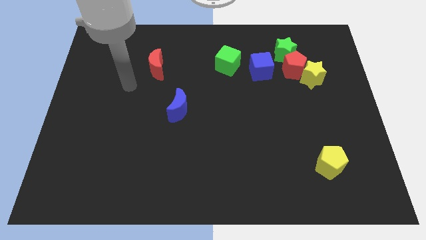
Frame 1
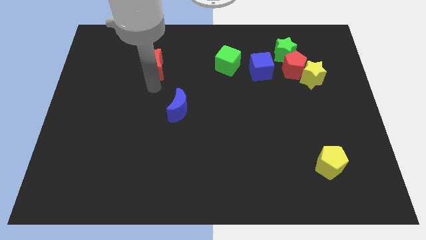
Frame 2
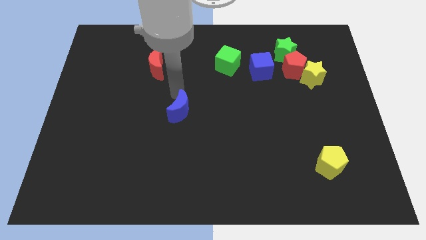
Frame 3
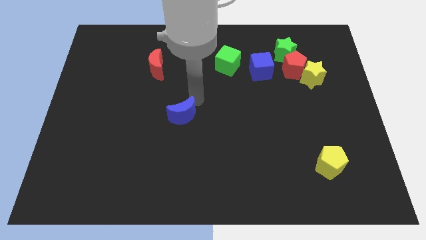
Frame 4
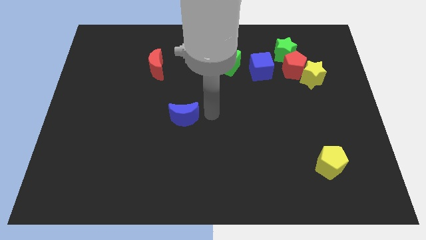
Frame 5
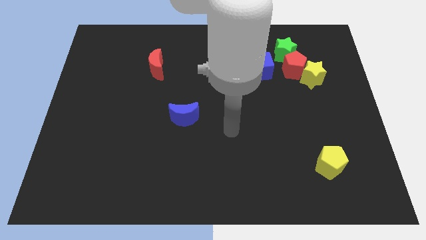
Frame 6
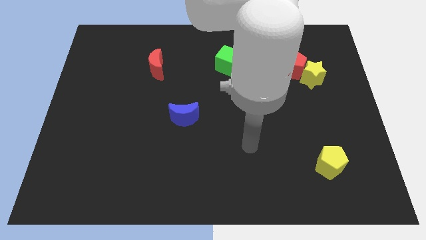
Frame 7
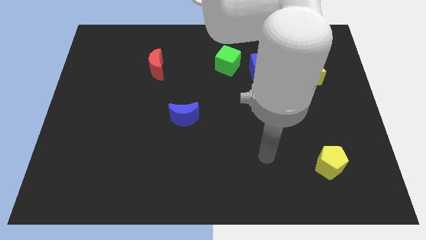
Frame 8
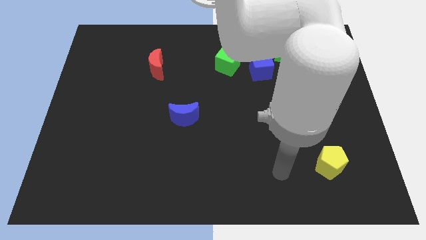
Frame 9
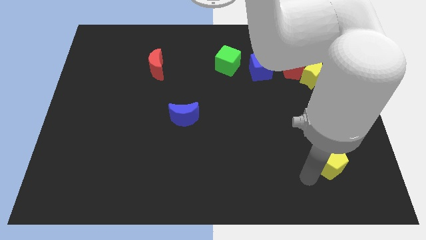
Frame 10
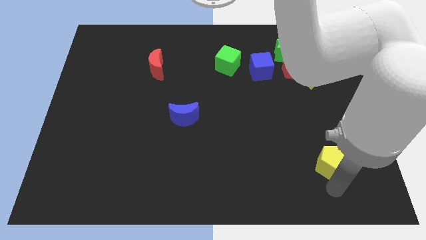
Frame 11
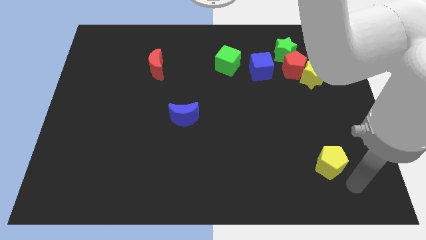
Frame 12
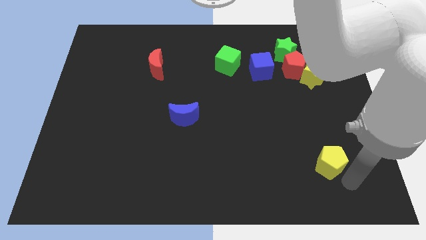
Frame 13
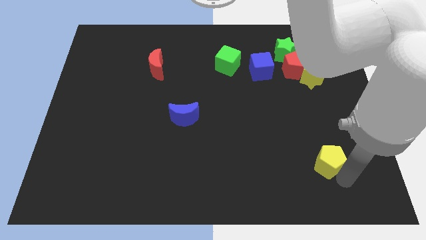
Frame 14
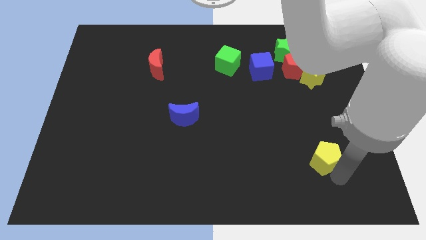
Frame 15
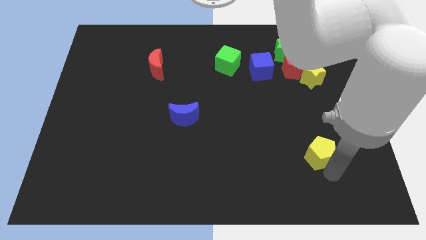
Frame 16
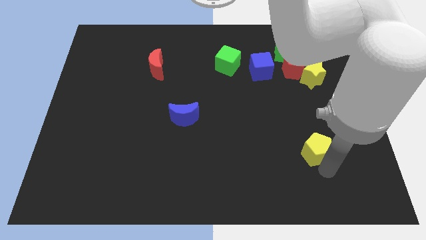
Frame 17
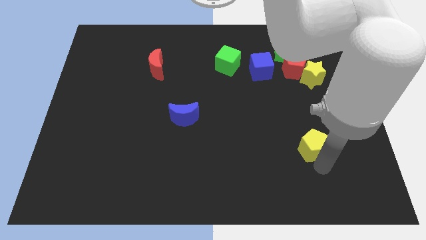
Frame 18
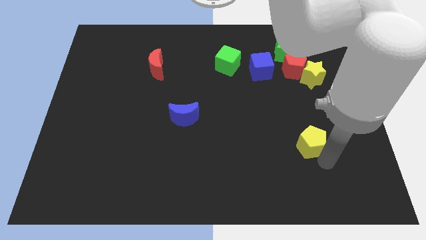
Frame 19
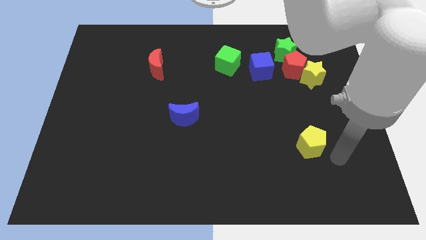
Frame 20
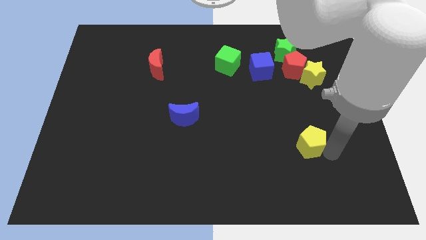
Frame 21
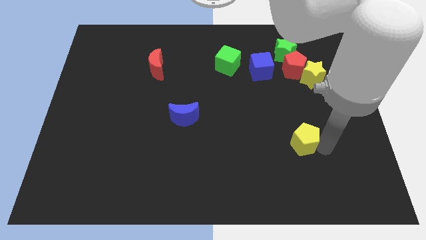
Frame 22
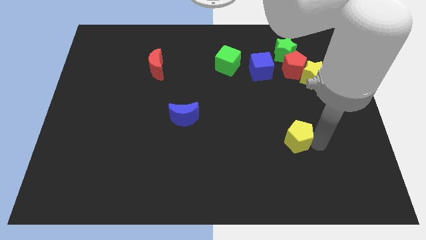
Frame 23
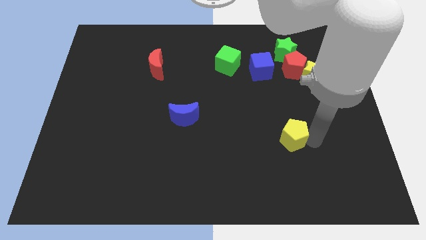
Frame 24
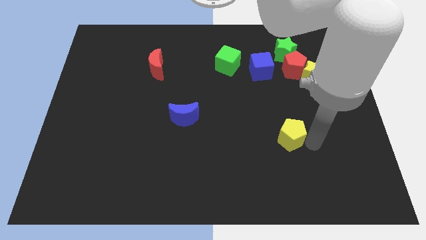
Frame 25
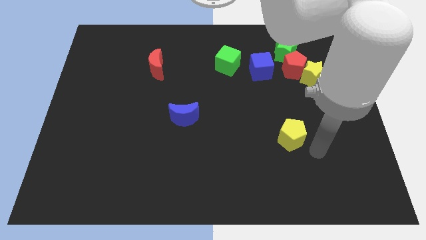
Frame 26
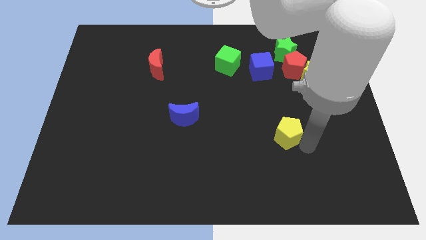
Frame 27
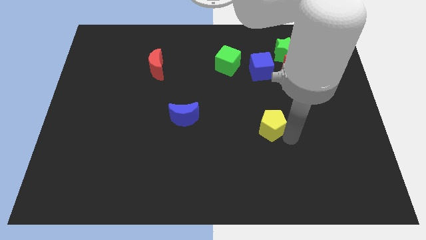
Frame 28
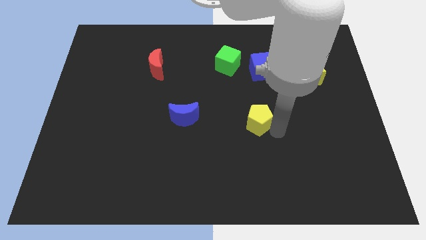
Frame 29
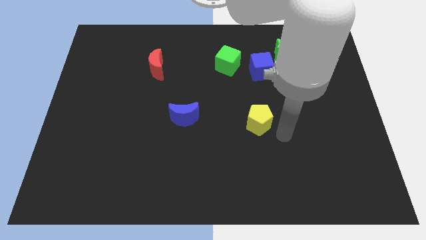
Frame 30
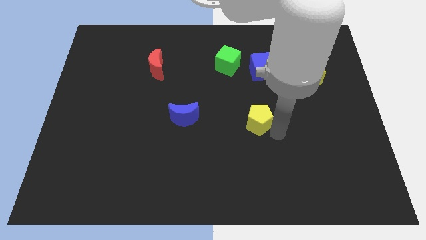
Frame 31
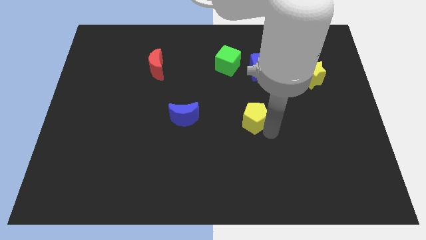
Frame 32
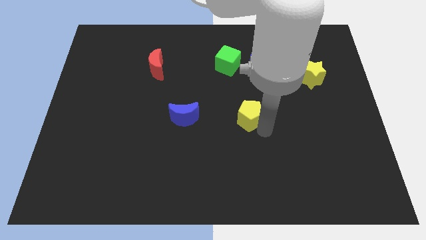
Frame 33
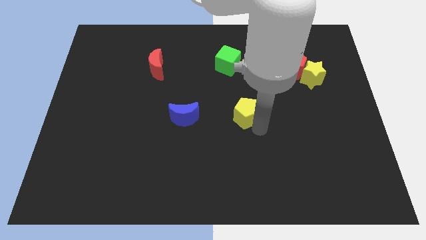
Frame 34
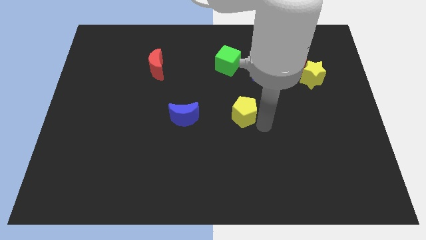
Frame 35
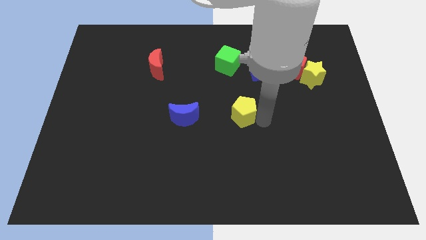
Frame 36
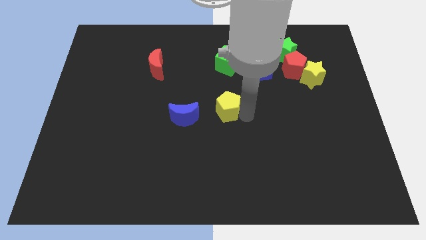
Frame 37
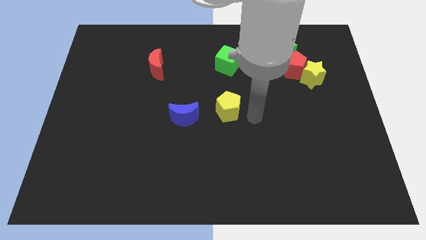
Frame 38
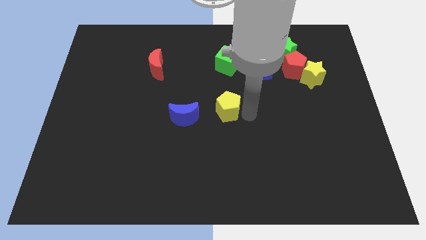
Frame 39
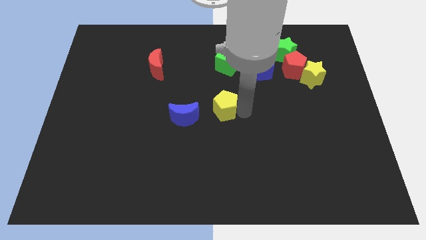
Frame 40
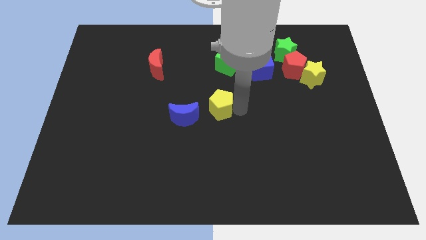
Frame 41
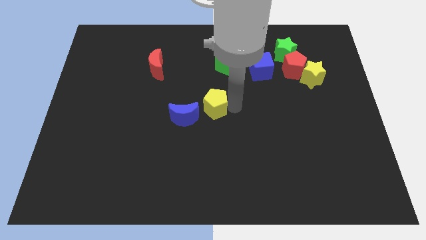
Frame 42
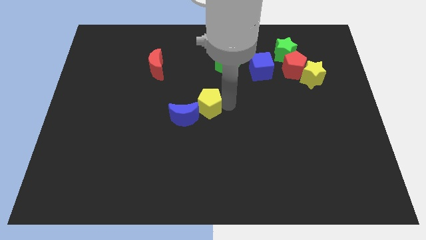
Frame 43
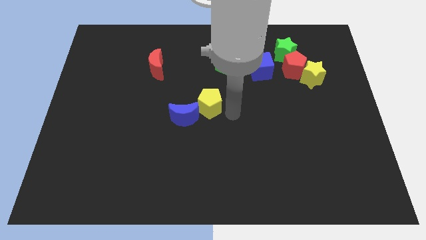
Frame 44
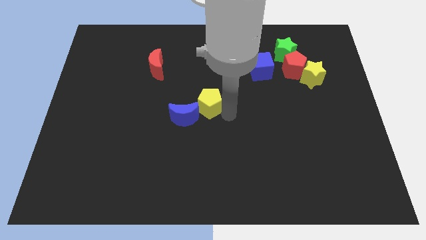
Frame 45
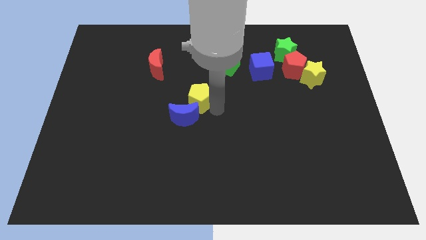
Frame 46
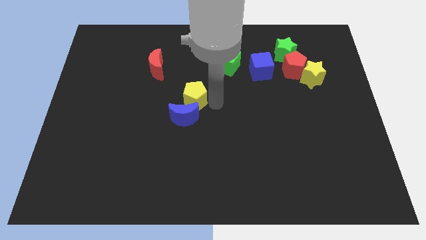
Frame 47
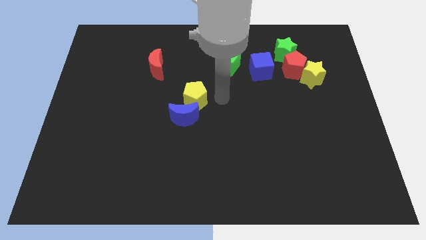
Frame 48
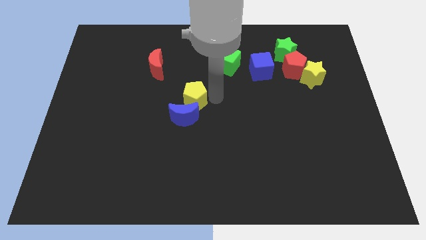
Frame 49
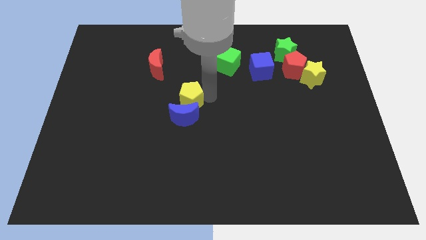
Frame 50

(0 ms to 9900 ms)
push the yellow pentagon to the top left of the blue moon

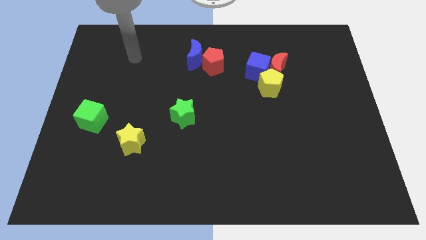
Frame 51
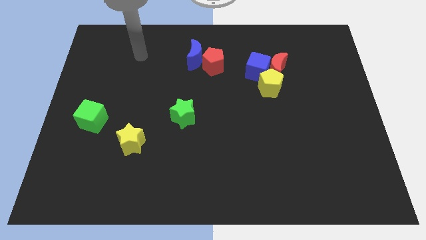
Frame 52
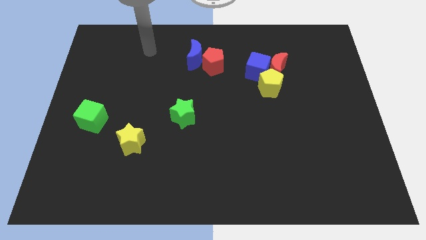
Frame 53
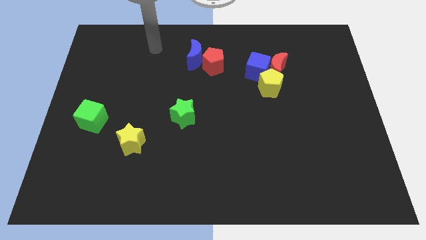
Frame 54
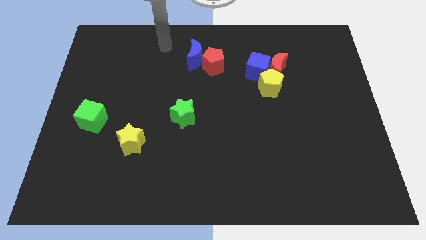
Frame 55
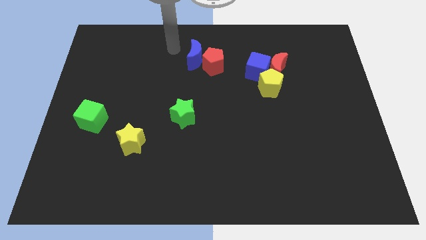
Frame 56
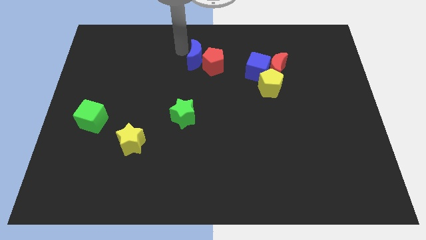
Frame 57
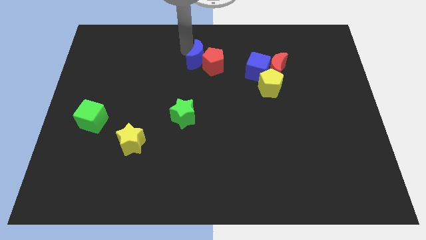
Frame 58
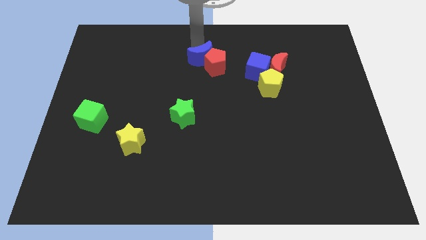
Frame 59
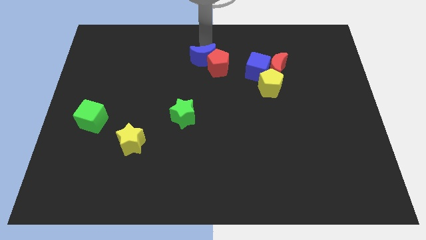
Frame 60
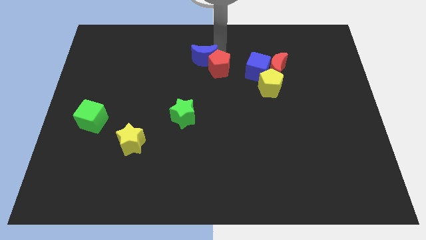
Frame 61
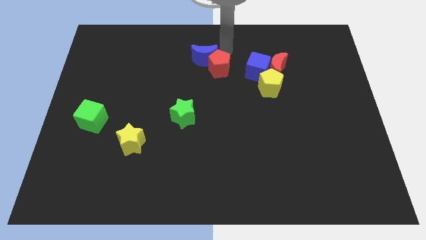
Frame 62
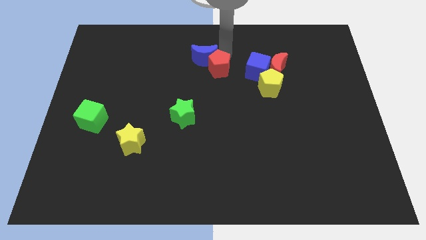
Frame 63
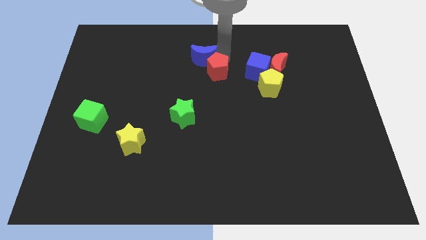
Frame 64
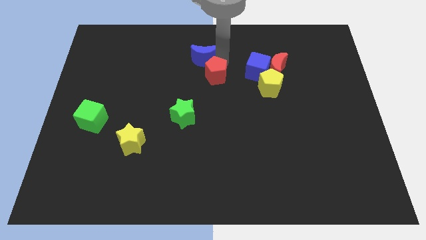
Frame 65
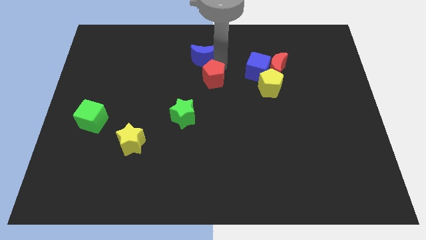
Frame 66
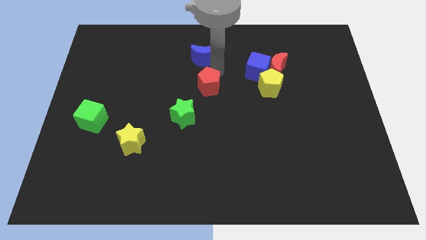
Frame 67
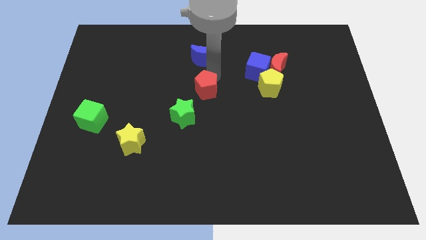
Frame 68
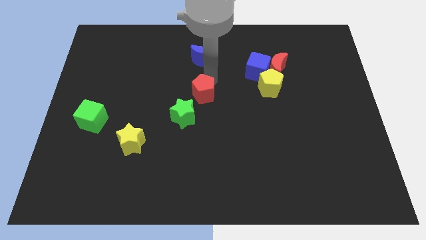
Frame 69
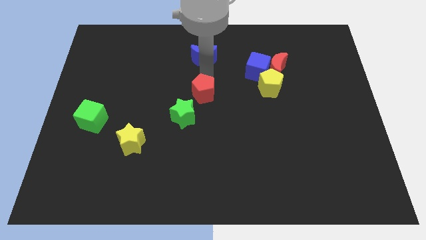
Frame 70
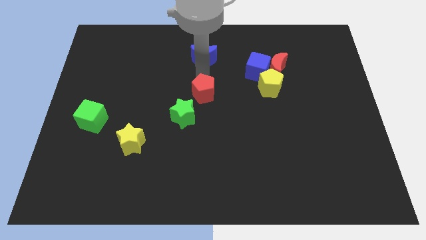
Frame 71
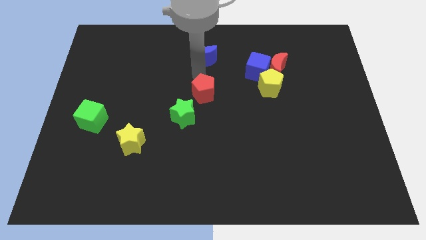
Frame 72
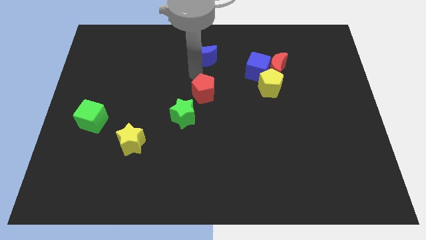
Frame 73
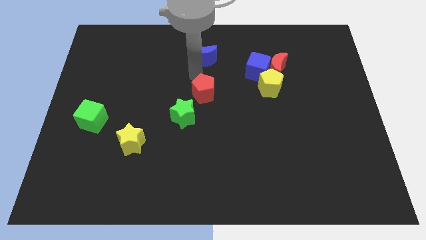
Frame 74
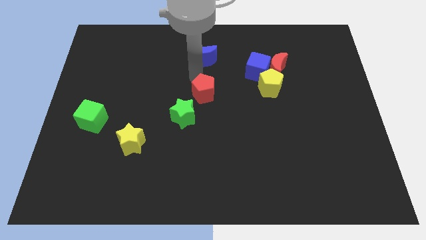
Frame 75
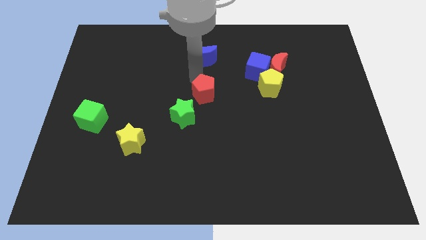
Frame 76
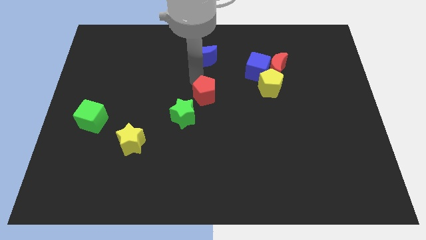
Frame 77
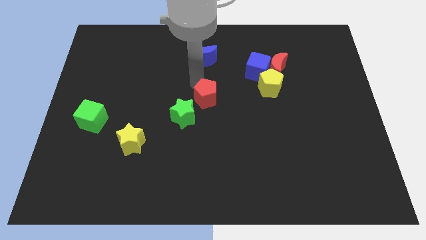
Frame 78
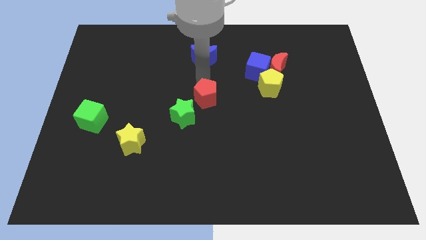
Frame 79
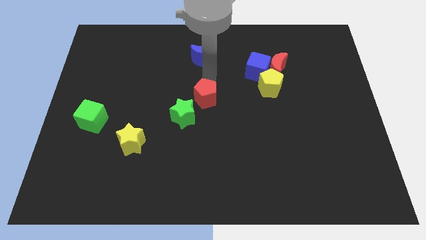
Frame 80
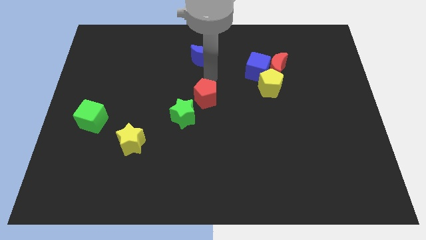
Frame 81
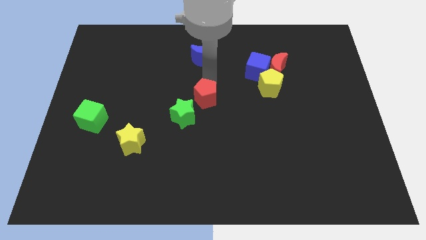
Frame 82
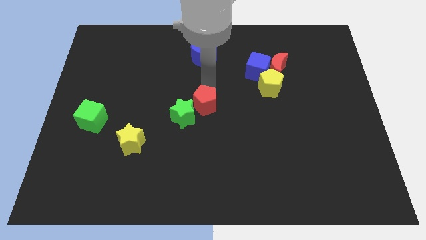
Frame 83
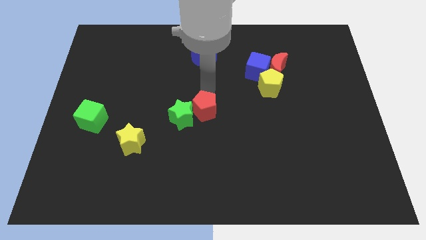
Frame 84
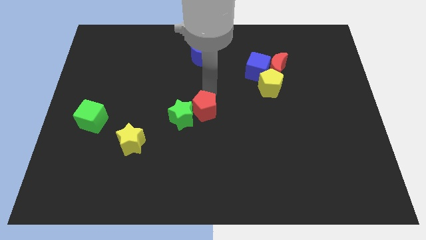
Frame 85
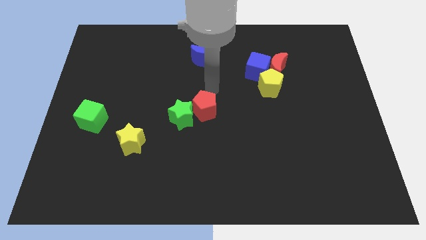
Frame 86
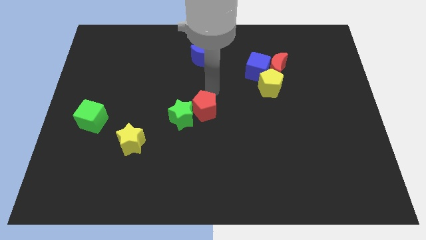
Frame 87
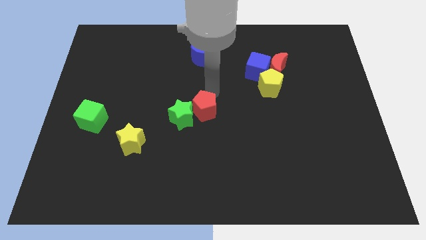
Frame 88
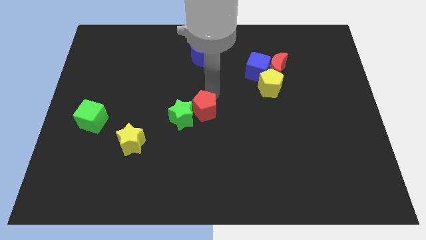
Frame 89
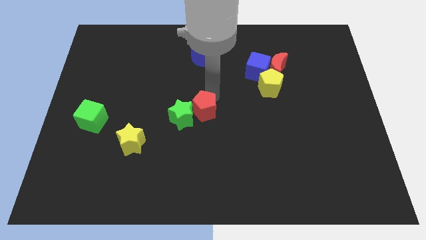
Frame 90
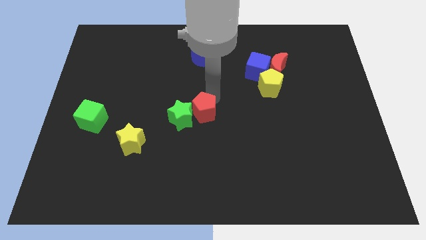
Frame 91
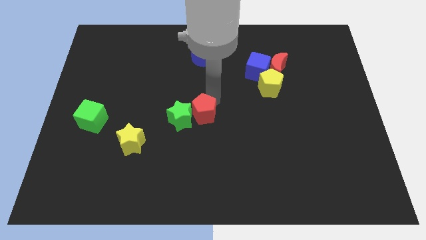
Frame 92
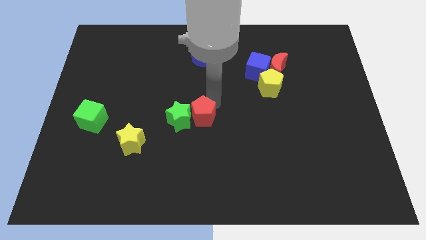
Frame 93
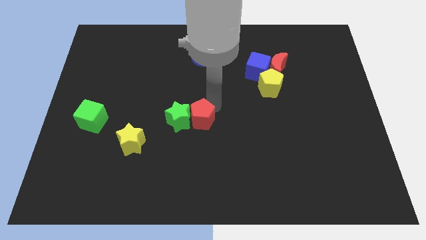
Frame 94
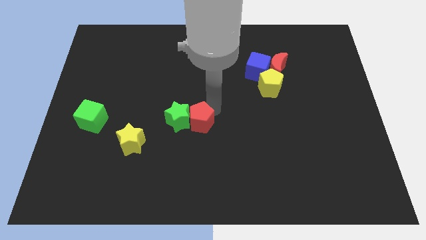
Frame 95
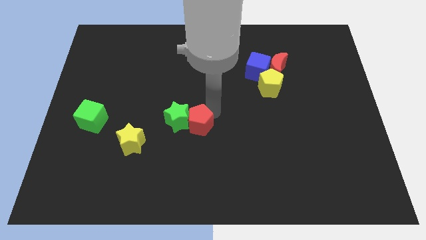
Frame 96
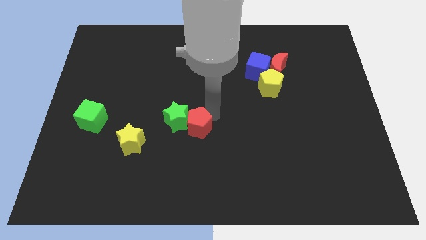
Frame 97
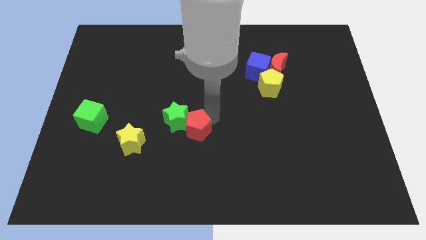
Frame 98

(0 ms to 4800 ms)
move the red pentagon right of the yellow star
